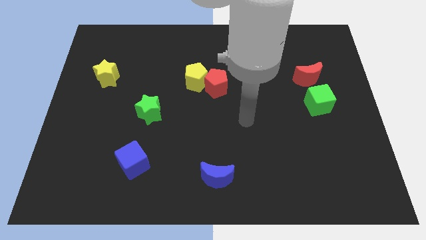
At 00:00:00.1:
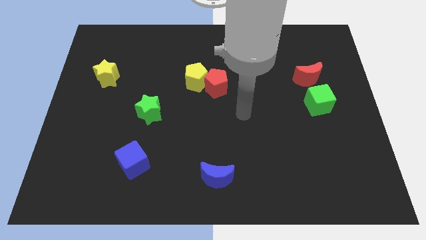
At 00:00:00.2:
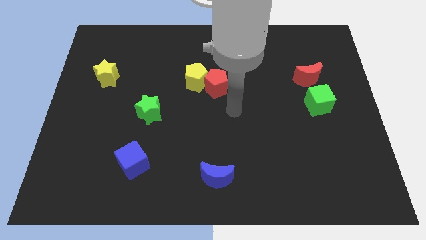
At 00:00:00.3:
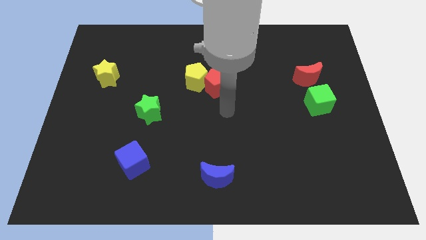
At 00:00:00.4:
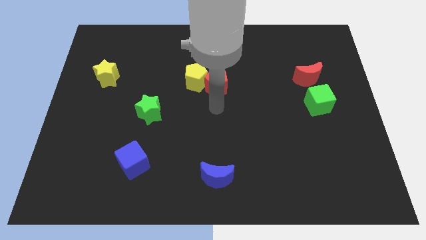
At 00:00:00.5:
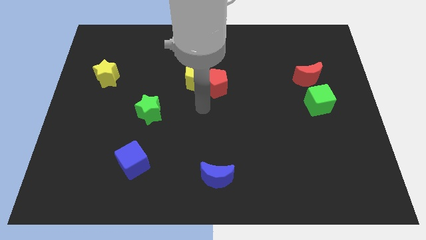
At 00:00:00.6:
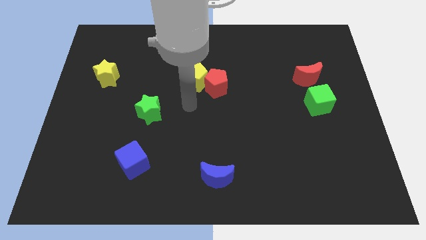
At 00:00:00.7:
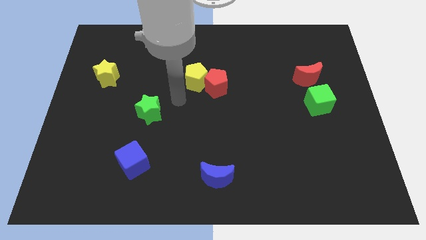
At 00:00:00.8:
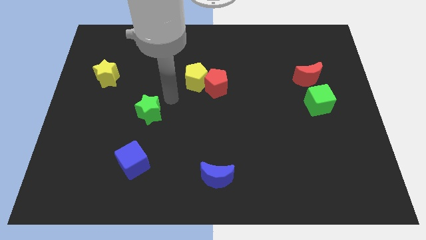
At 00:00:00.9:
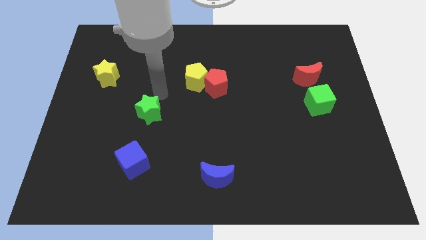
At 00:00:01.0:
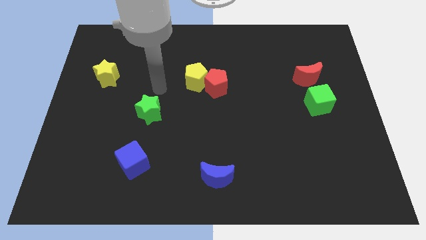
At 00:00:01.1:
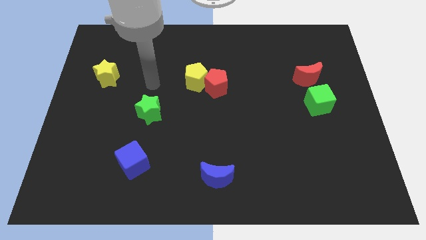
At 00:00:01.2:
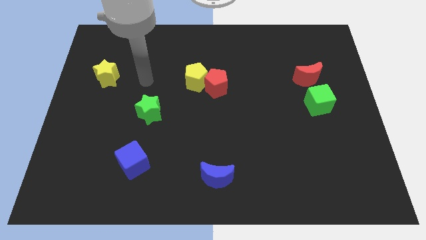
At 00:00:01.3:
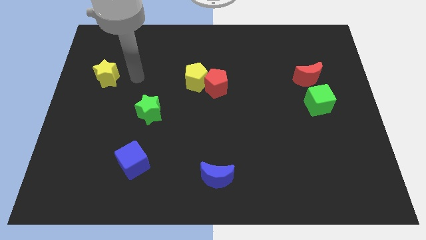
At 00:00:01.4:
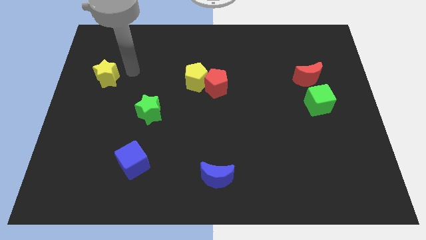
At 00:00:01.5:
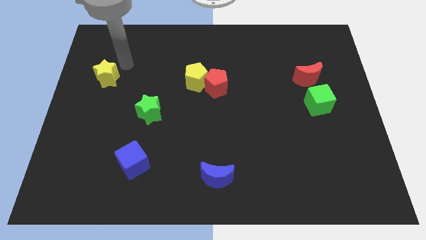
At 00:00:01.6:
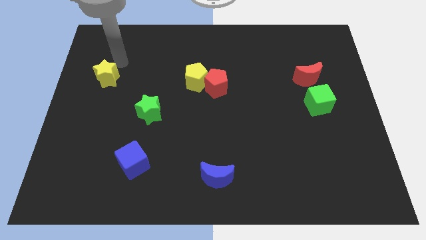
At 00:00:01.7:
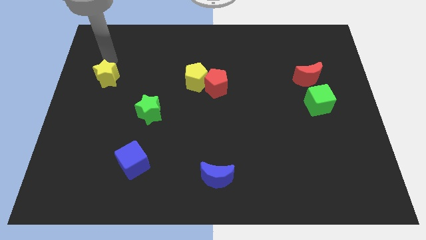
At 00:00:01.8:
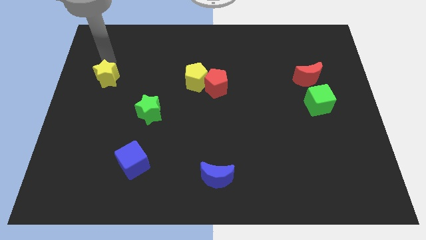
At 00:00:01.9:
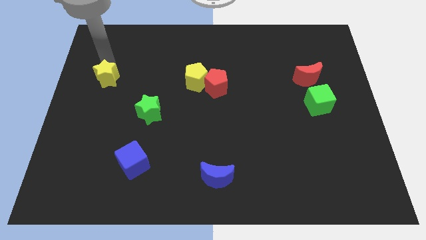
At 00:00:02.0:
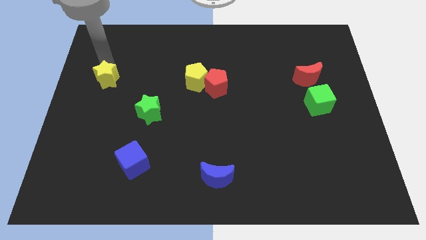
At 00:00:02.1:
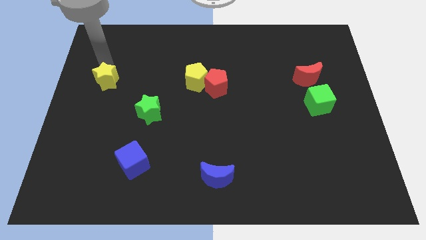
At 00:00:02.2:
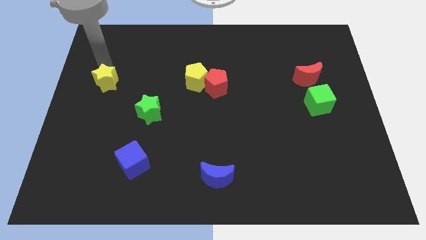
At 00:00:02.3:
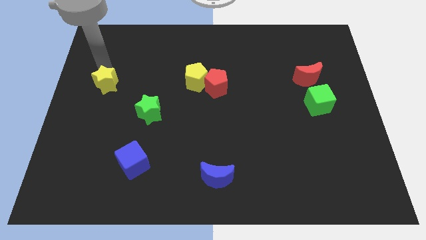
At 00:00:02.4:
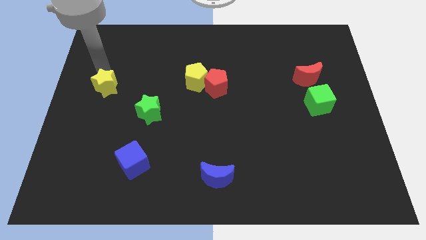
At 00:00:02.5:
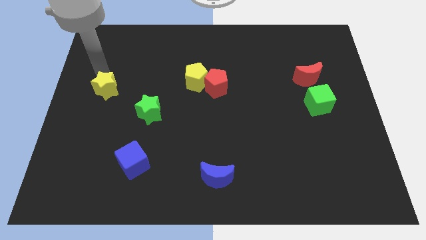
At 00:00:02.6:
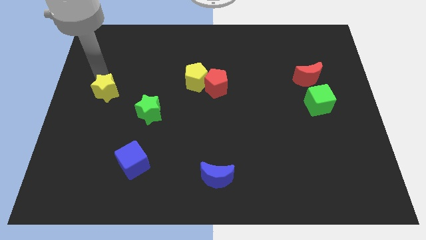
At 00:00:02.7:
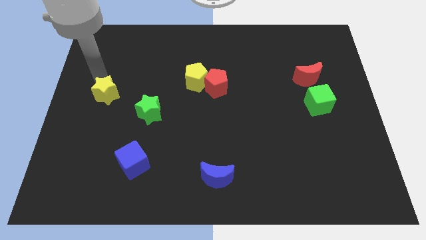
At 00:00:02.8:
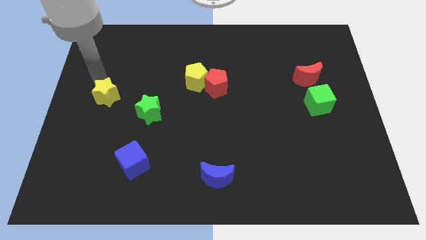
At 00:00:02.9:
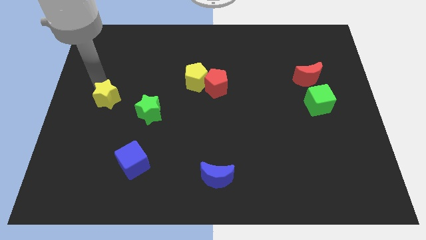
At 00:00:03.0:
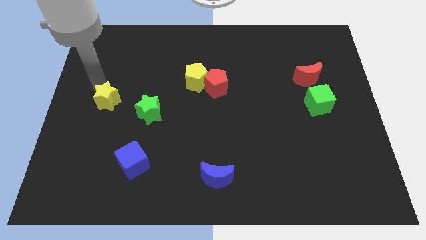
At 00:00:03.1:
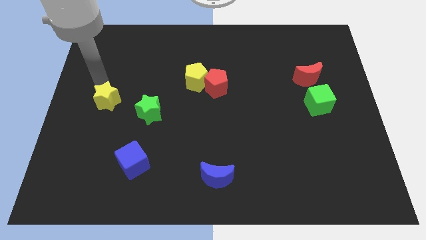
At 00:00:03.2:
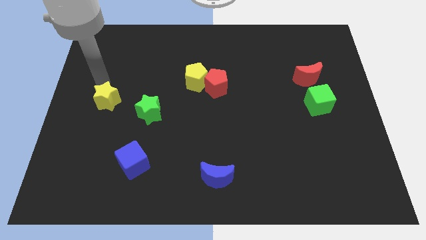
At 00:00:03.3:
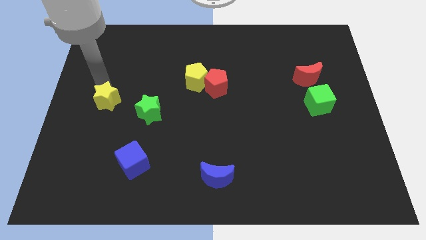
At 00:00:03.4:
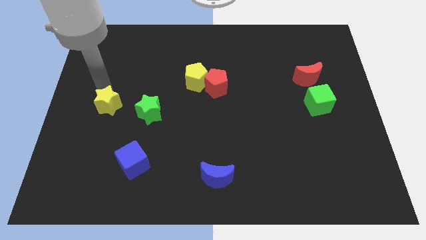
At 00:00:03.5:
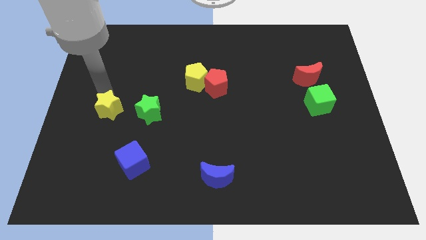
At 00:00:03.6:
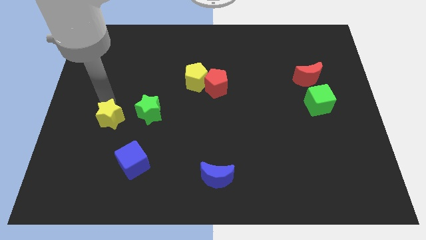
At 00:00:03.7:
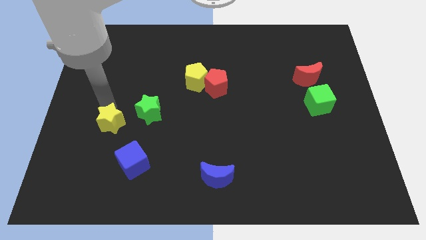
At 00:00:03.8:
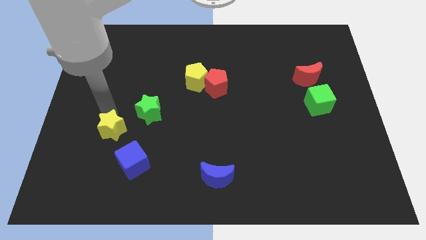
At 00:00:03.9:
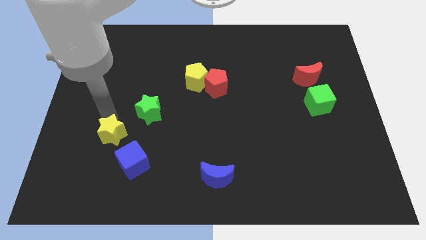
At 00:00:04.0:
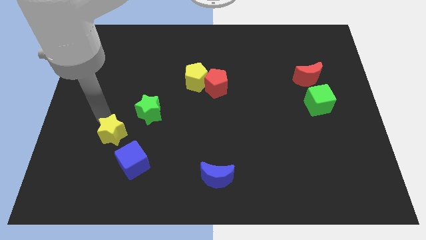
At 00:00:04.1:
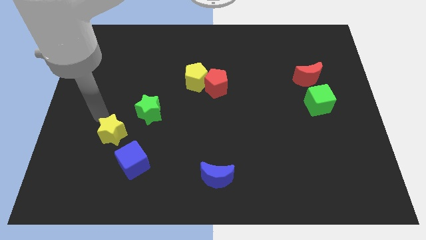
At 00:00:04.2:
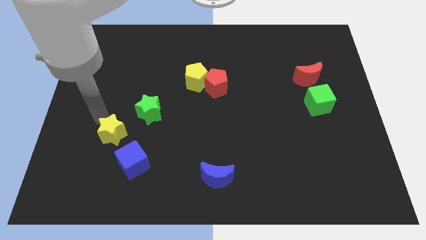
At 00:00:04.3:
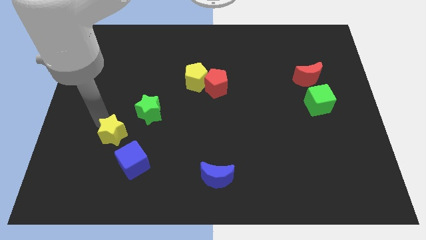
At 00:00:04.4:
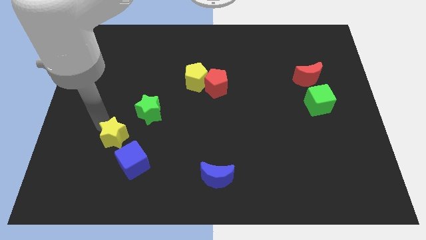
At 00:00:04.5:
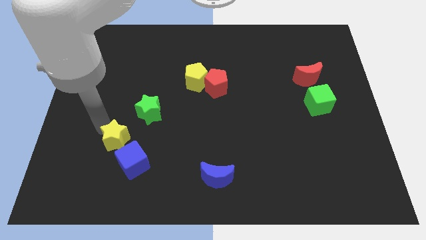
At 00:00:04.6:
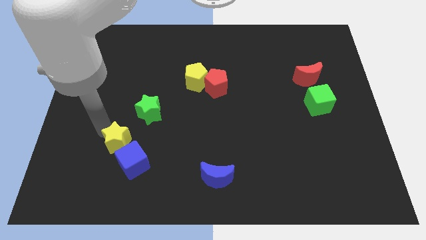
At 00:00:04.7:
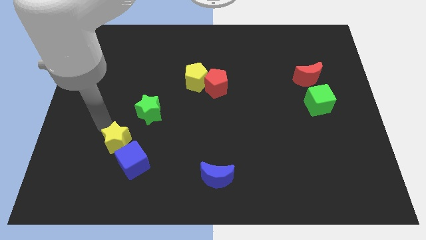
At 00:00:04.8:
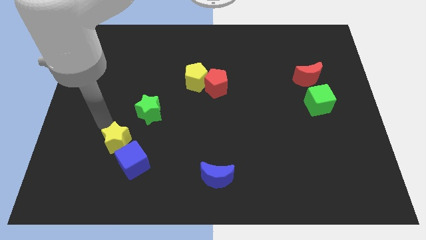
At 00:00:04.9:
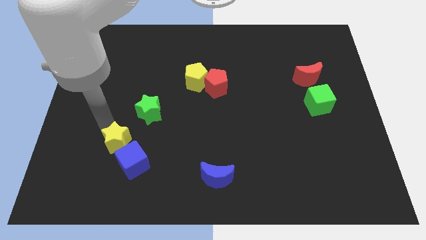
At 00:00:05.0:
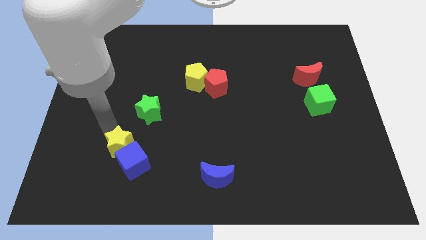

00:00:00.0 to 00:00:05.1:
move the yellow star towards the blue cube

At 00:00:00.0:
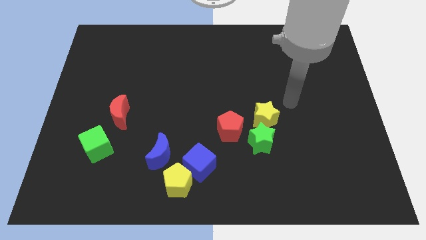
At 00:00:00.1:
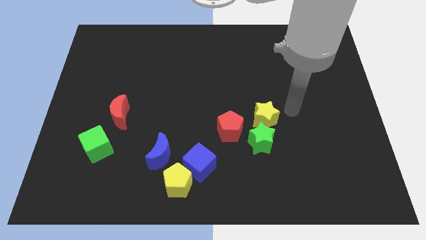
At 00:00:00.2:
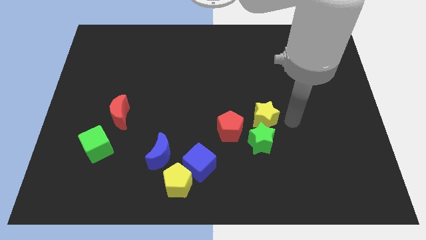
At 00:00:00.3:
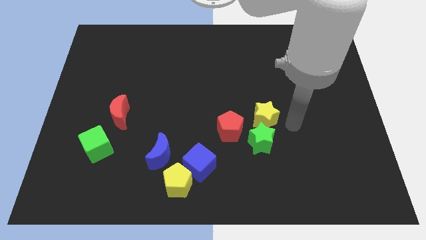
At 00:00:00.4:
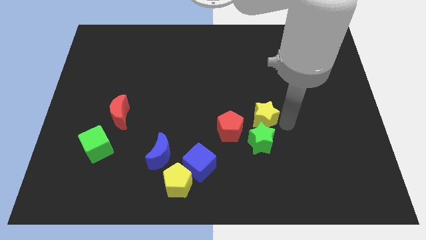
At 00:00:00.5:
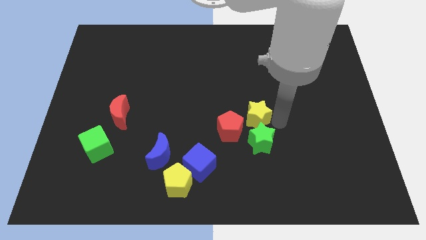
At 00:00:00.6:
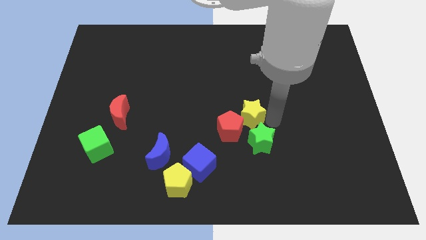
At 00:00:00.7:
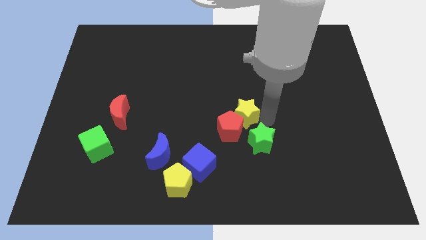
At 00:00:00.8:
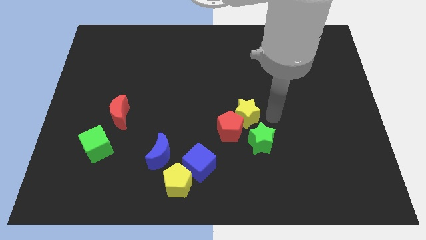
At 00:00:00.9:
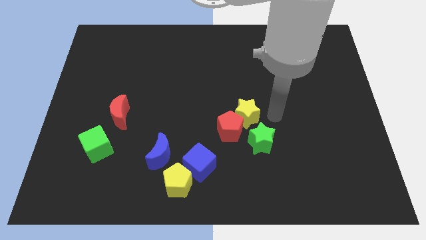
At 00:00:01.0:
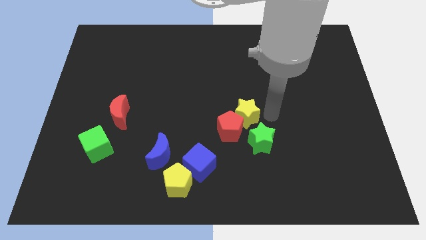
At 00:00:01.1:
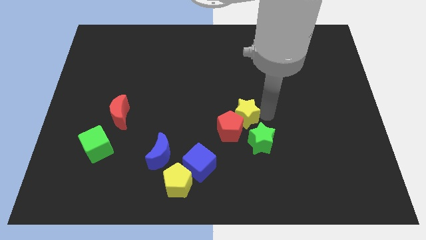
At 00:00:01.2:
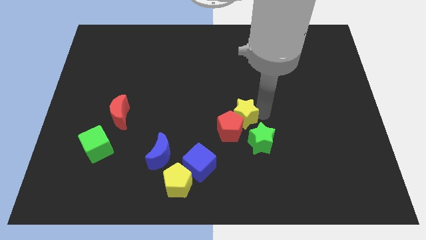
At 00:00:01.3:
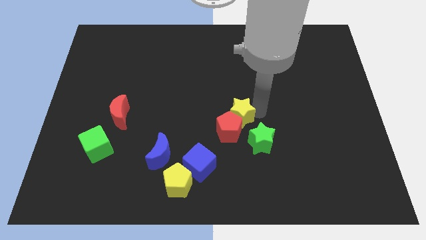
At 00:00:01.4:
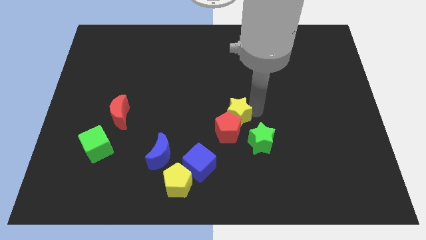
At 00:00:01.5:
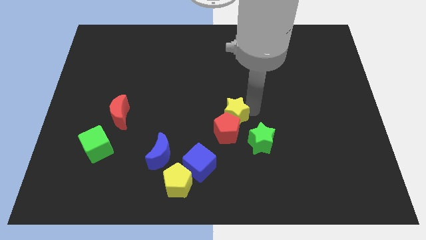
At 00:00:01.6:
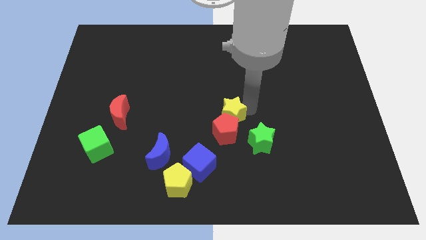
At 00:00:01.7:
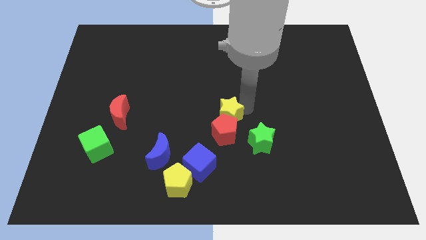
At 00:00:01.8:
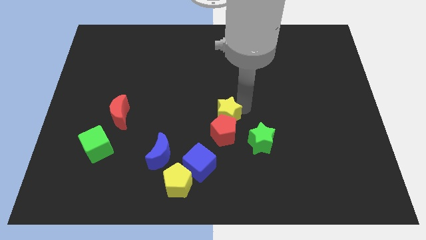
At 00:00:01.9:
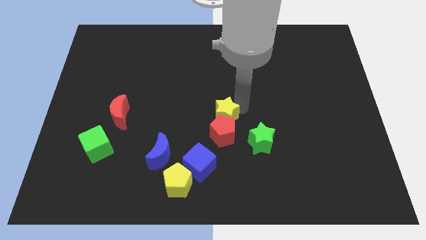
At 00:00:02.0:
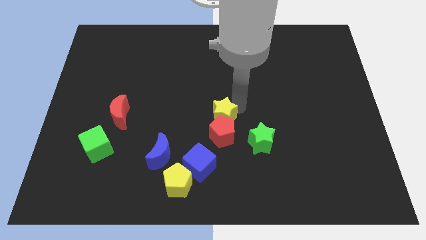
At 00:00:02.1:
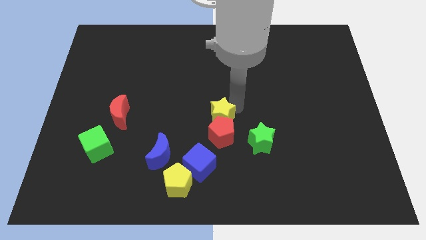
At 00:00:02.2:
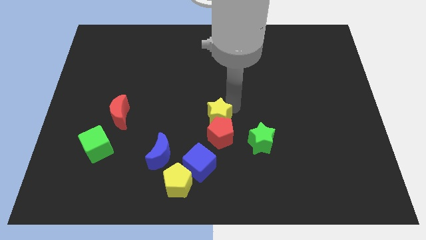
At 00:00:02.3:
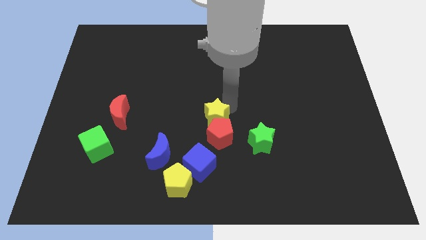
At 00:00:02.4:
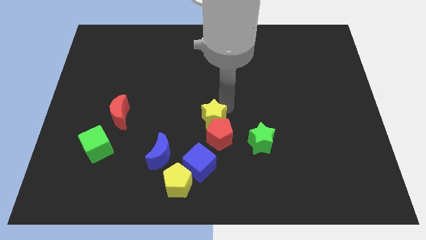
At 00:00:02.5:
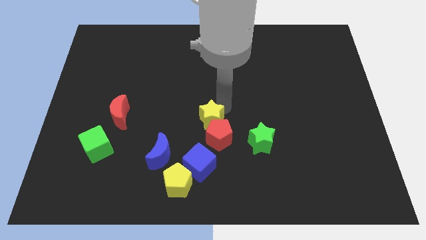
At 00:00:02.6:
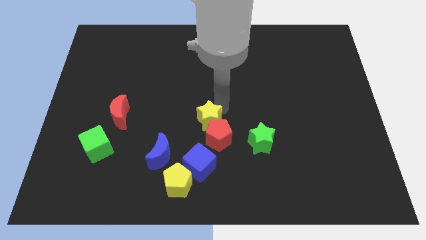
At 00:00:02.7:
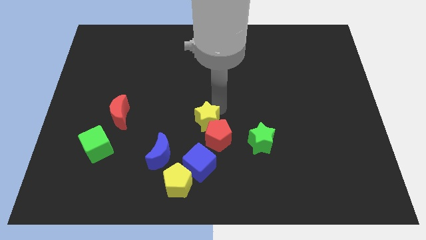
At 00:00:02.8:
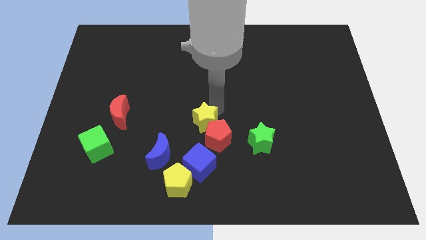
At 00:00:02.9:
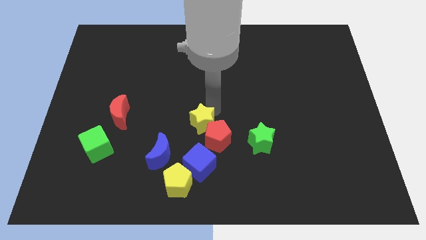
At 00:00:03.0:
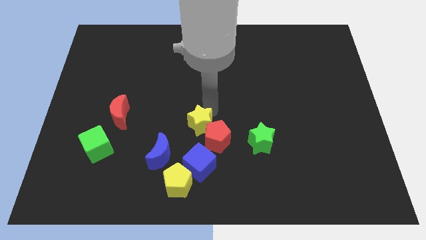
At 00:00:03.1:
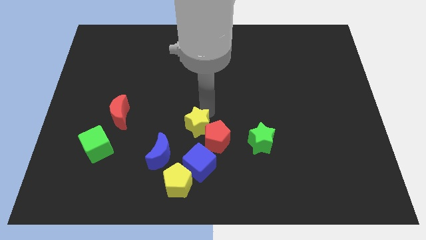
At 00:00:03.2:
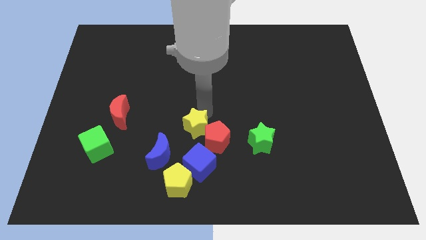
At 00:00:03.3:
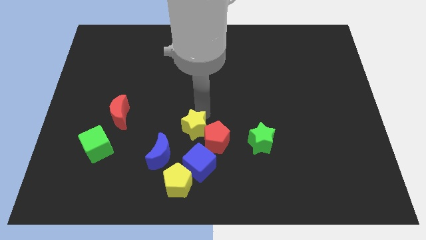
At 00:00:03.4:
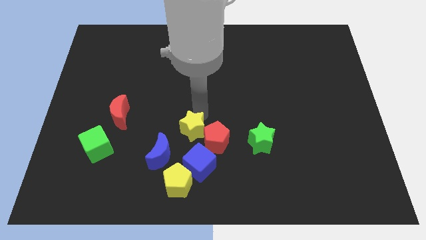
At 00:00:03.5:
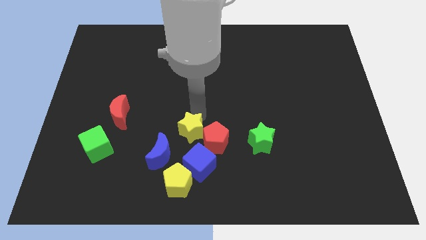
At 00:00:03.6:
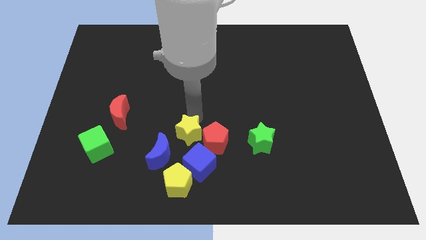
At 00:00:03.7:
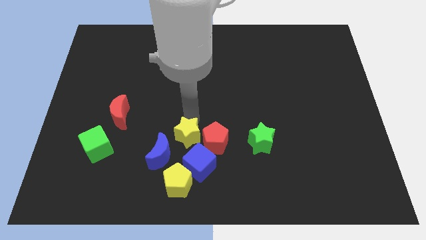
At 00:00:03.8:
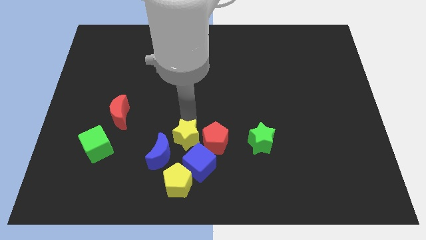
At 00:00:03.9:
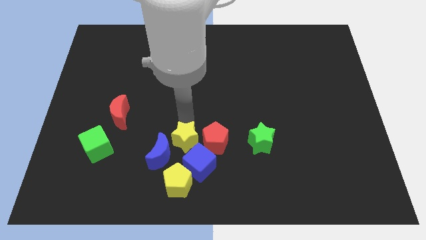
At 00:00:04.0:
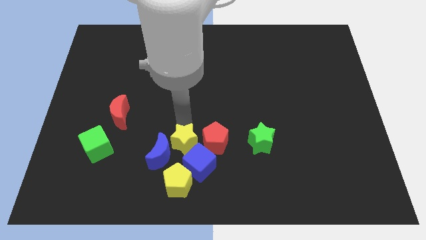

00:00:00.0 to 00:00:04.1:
put the yellow star to the blue moon
